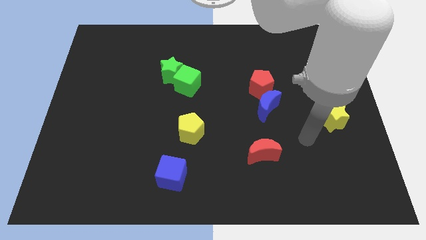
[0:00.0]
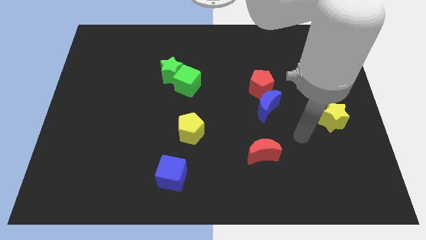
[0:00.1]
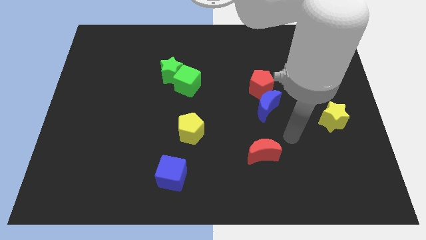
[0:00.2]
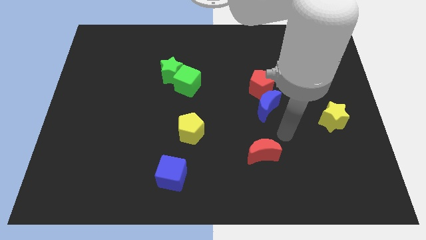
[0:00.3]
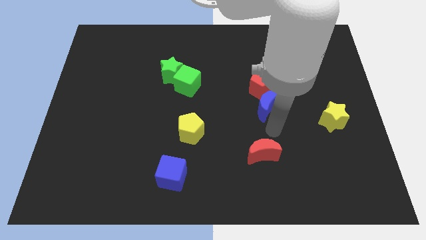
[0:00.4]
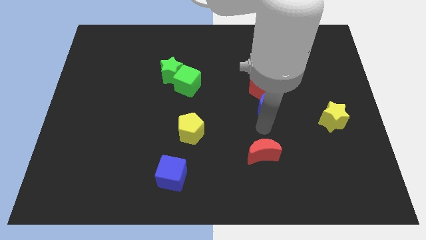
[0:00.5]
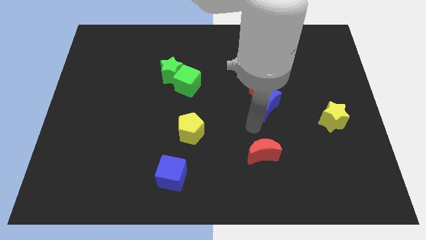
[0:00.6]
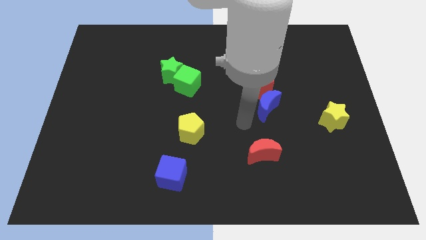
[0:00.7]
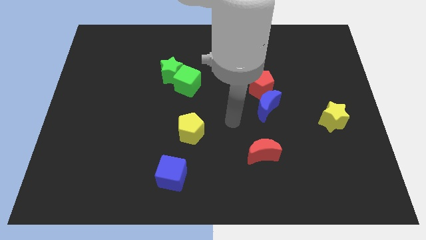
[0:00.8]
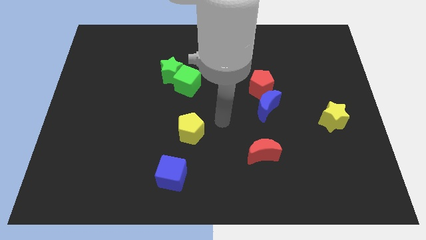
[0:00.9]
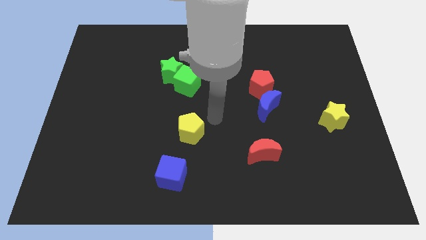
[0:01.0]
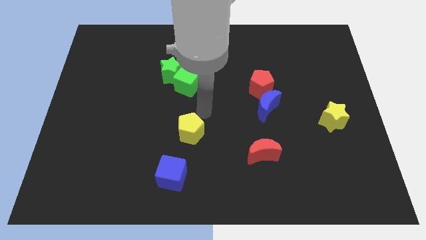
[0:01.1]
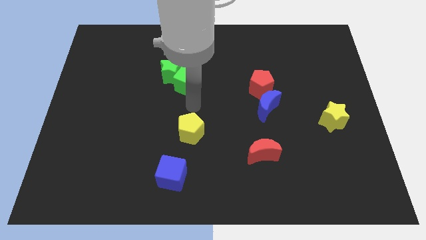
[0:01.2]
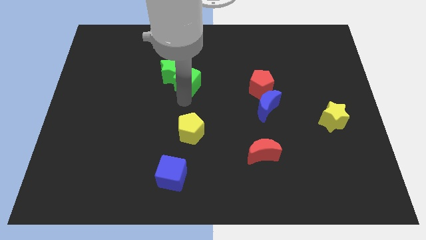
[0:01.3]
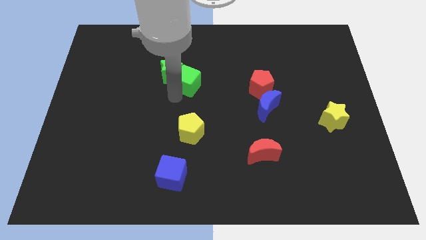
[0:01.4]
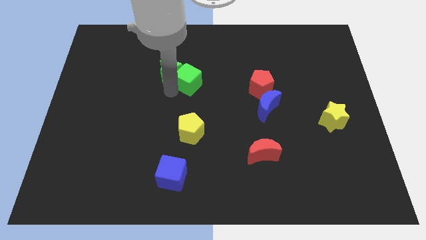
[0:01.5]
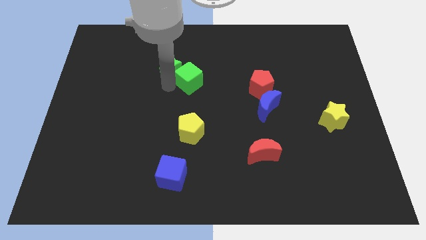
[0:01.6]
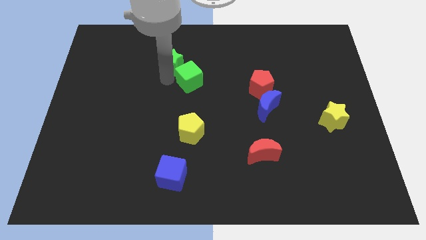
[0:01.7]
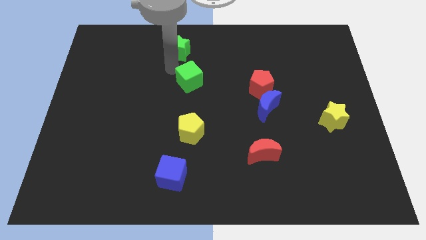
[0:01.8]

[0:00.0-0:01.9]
move the green cube away from the green star

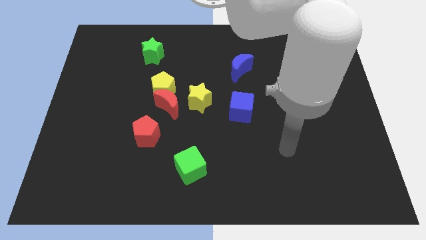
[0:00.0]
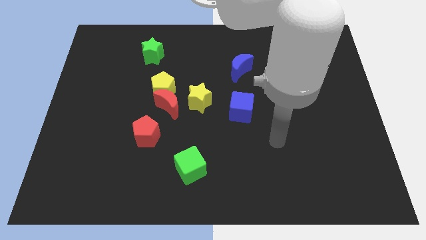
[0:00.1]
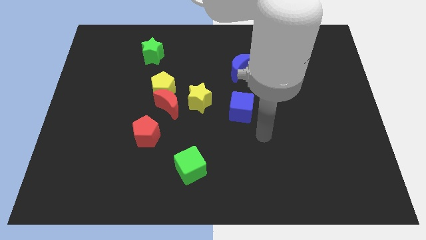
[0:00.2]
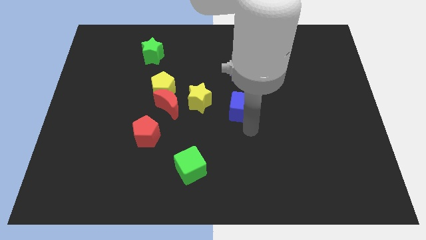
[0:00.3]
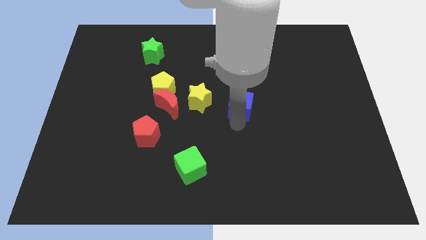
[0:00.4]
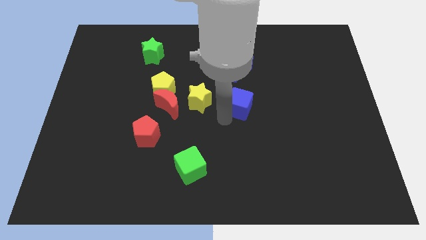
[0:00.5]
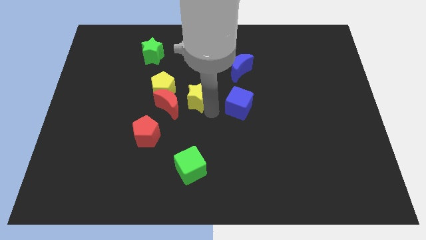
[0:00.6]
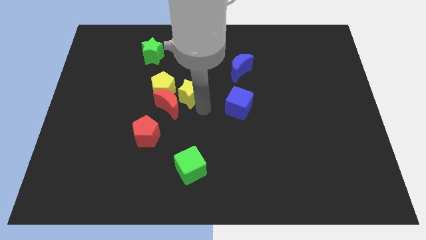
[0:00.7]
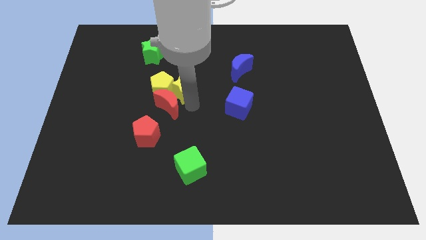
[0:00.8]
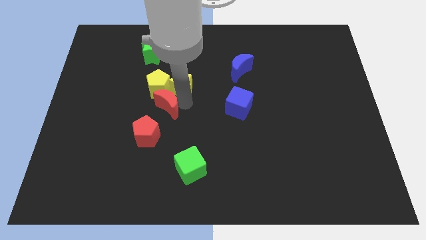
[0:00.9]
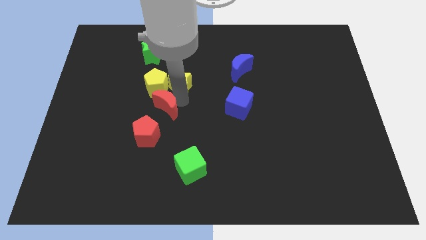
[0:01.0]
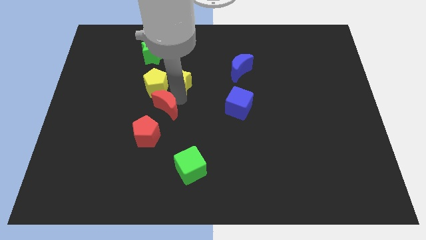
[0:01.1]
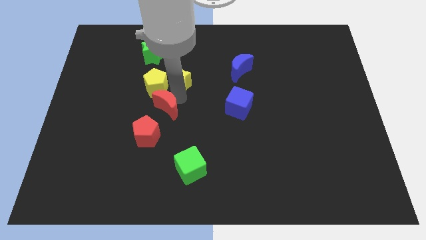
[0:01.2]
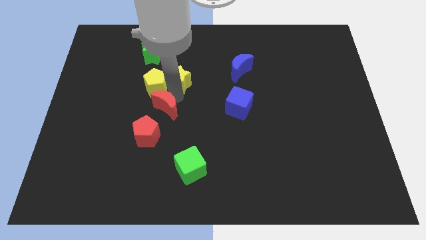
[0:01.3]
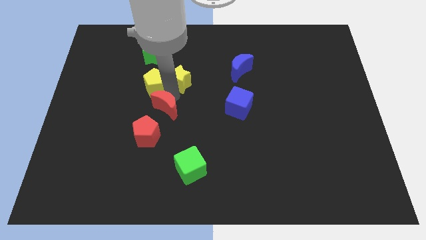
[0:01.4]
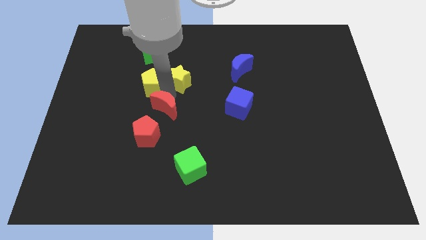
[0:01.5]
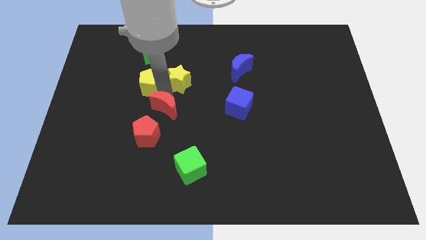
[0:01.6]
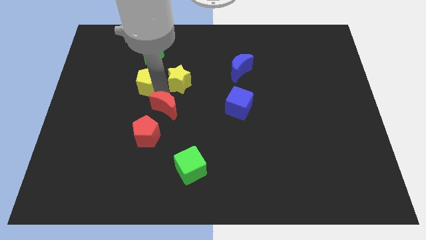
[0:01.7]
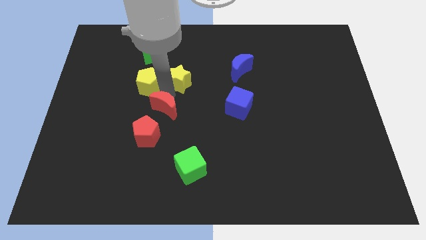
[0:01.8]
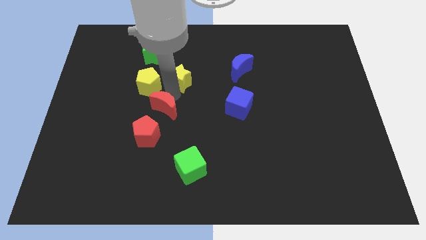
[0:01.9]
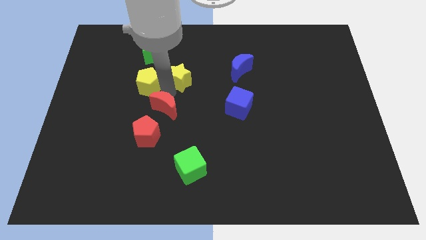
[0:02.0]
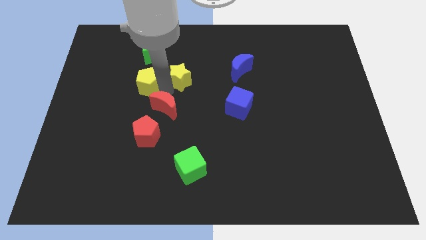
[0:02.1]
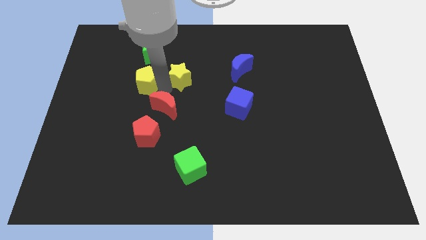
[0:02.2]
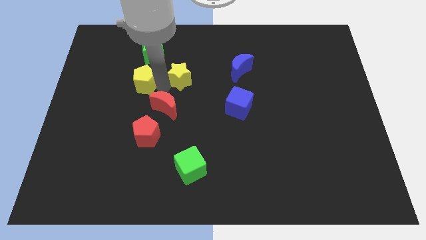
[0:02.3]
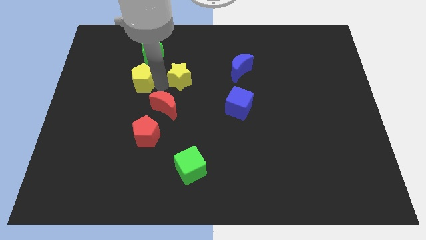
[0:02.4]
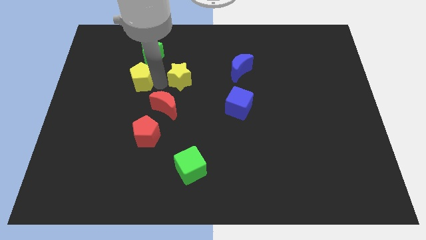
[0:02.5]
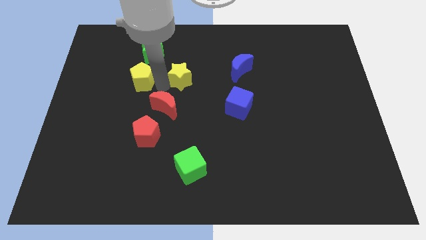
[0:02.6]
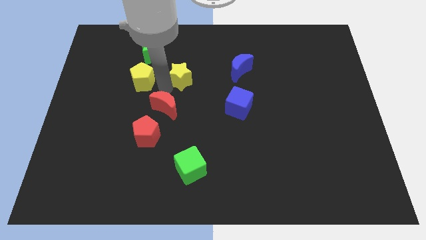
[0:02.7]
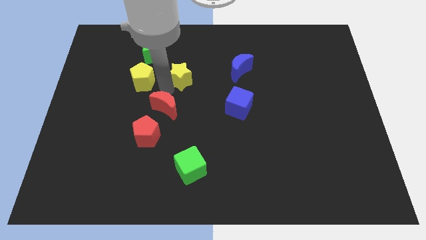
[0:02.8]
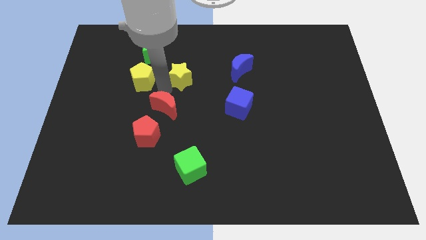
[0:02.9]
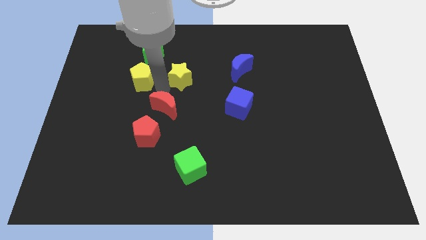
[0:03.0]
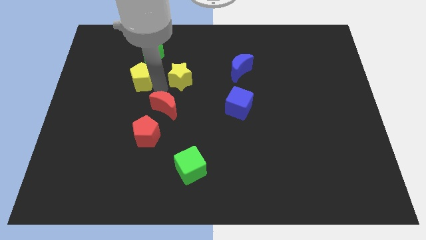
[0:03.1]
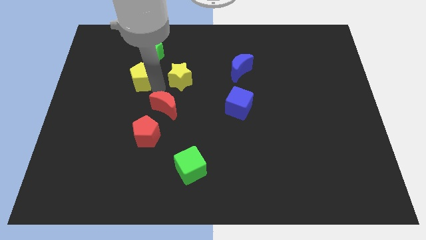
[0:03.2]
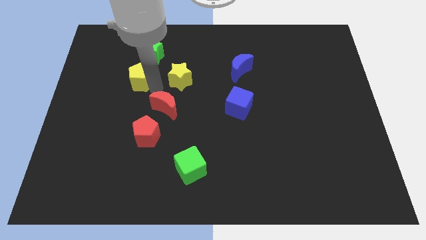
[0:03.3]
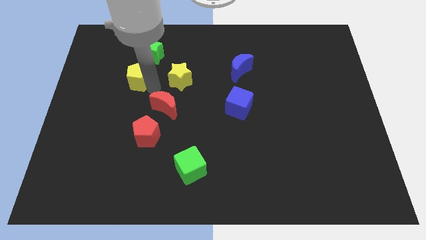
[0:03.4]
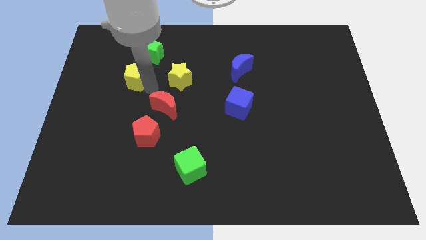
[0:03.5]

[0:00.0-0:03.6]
separate the yellow pentagon from the red moon and yellow star

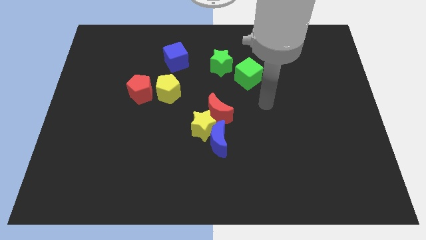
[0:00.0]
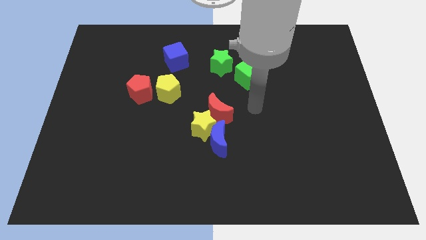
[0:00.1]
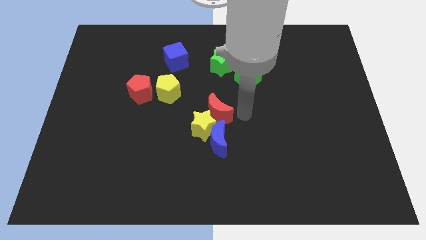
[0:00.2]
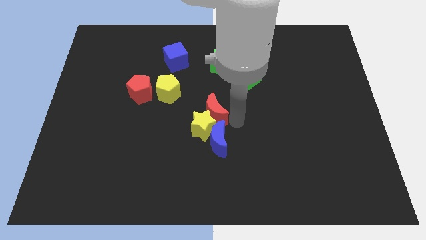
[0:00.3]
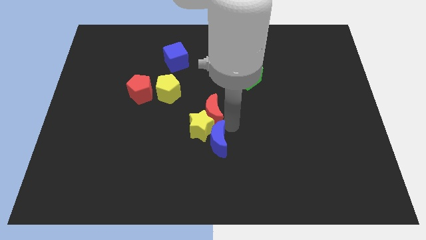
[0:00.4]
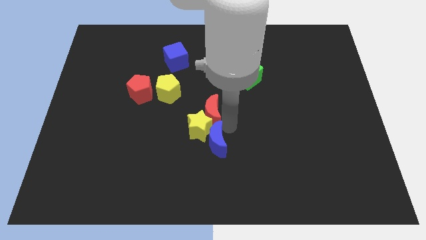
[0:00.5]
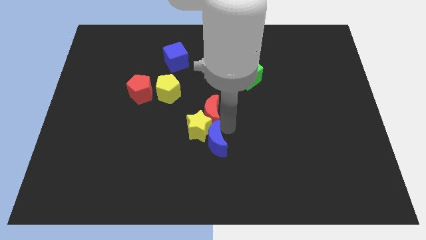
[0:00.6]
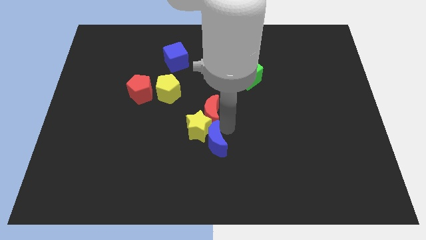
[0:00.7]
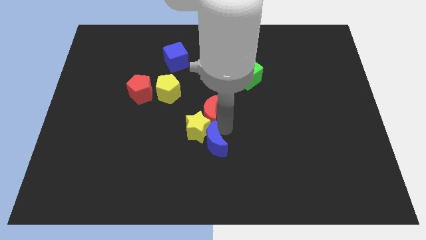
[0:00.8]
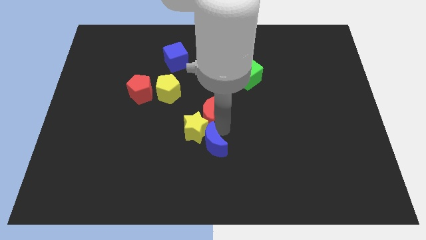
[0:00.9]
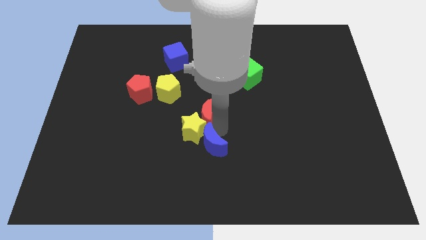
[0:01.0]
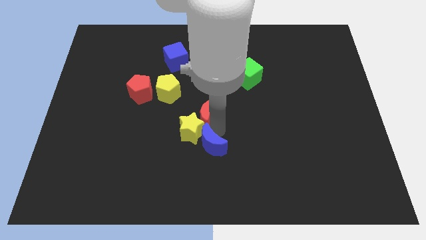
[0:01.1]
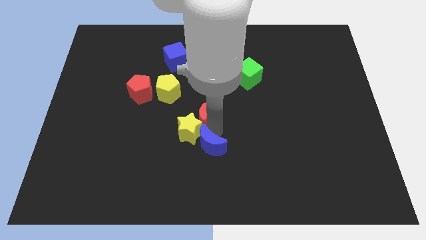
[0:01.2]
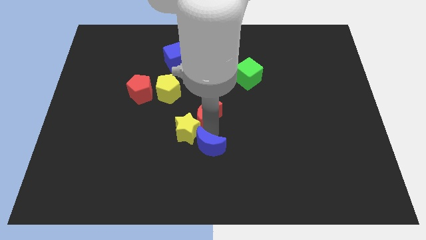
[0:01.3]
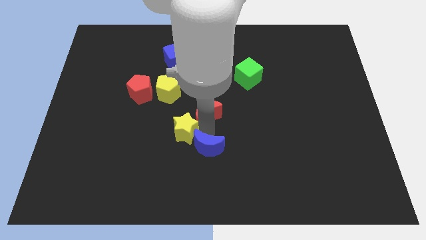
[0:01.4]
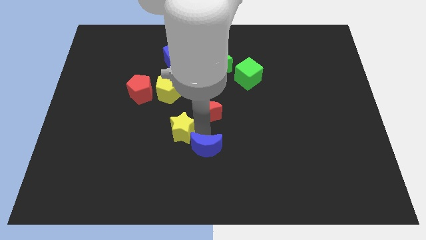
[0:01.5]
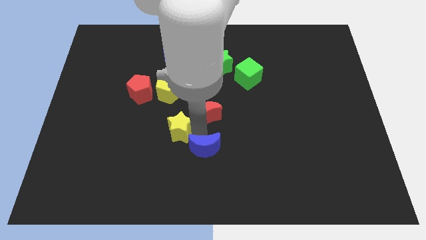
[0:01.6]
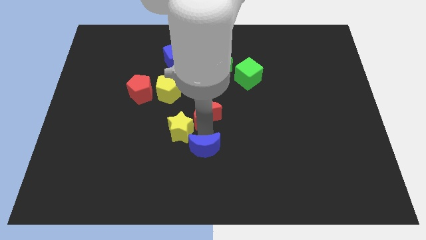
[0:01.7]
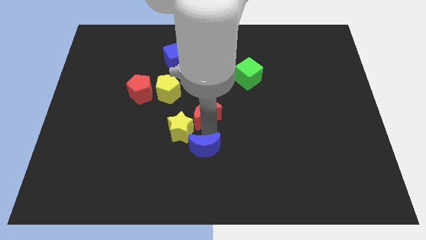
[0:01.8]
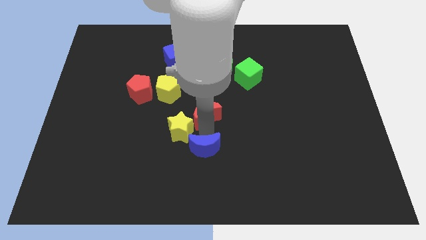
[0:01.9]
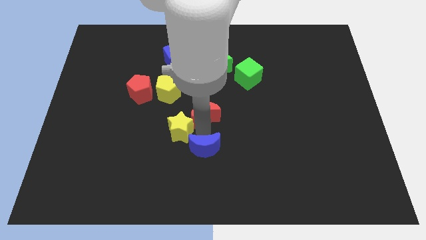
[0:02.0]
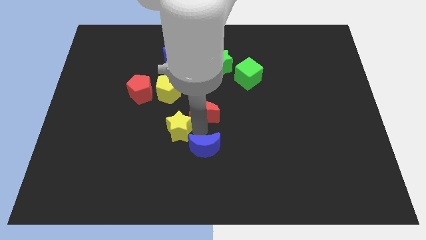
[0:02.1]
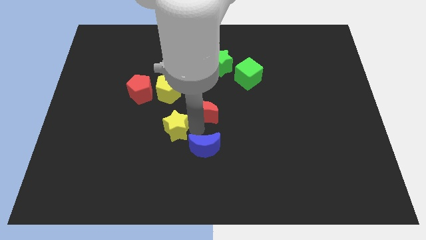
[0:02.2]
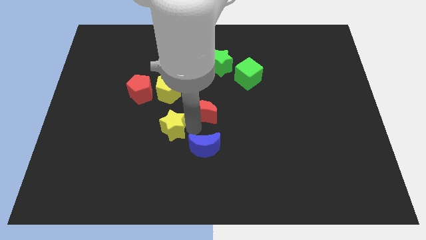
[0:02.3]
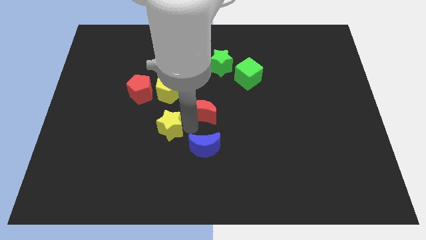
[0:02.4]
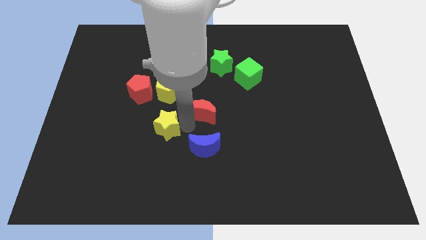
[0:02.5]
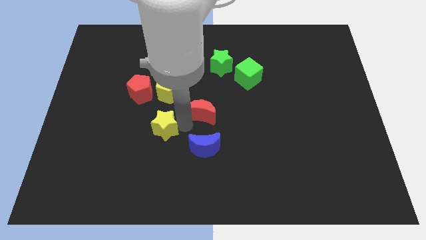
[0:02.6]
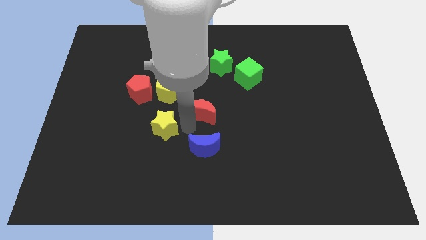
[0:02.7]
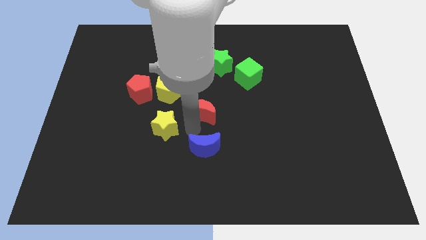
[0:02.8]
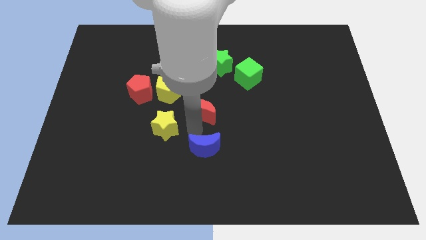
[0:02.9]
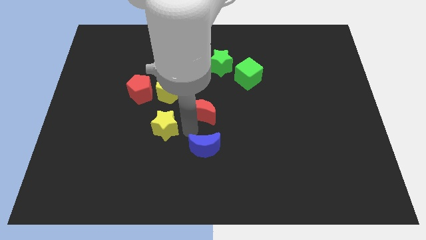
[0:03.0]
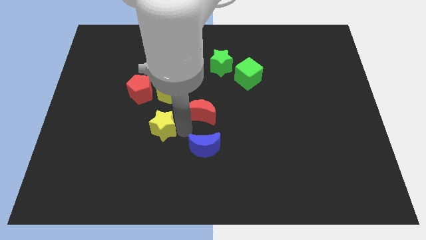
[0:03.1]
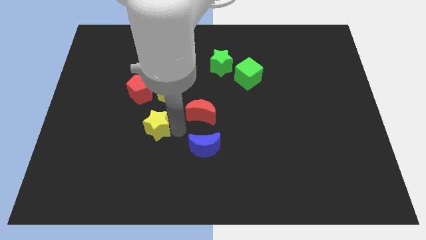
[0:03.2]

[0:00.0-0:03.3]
move the yellow star away from the blue moon and red moon

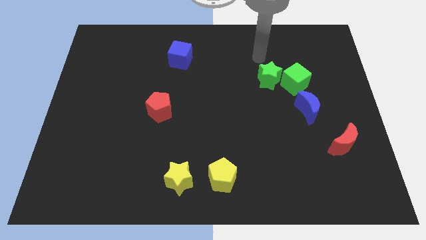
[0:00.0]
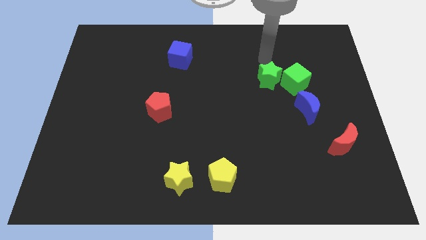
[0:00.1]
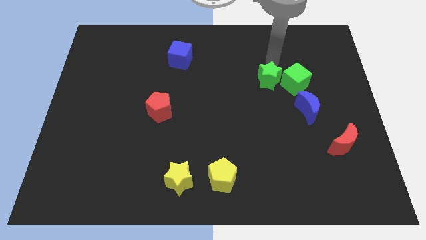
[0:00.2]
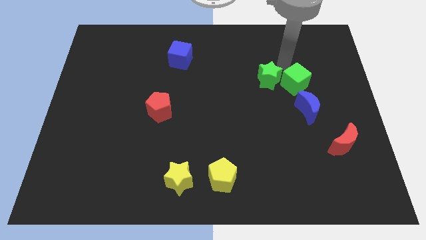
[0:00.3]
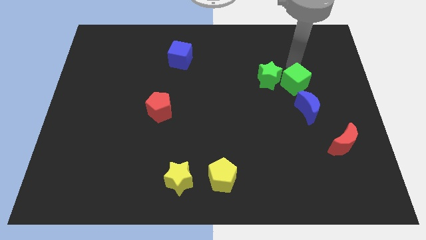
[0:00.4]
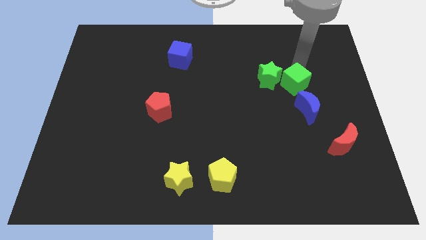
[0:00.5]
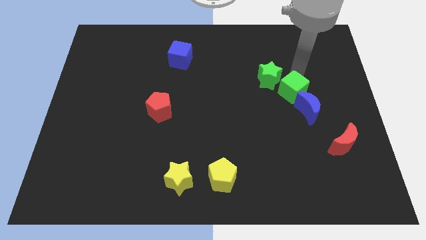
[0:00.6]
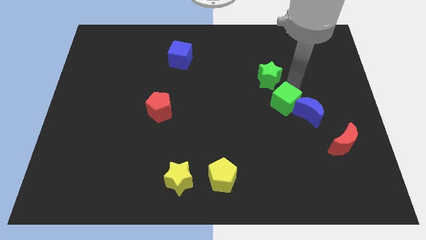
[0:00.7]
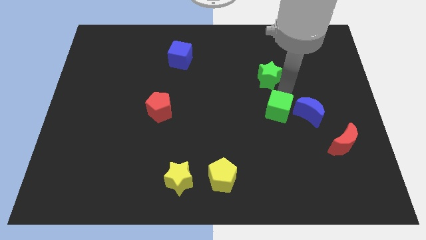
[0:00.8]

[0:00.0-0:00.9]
separate the green star from the green cube
